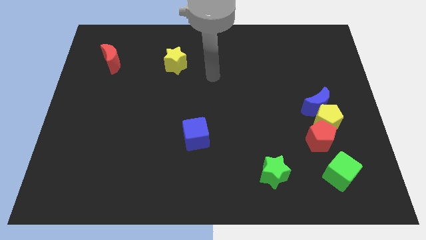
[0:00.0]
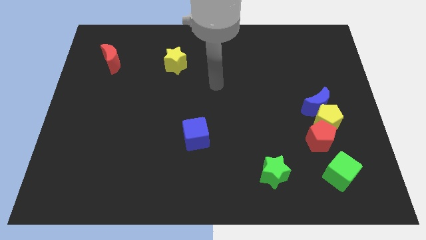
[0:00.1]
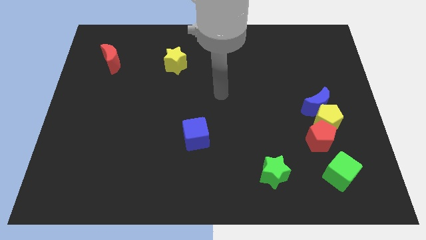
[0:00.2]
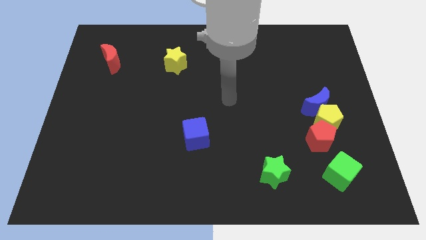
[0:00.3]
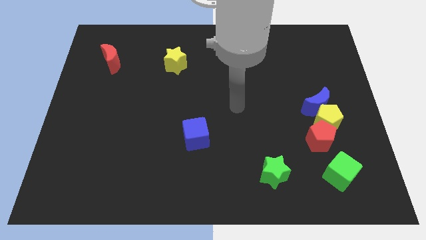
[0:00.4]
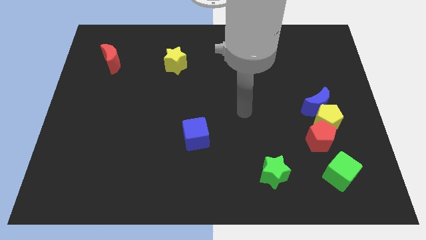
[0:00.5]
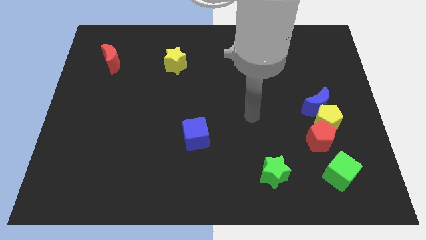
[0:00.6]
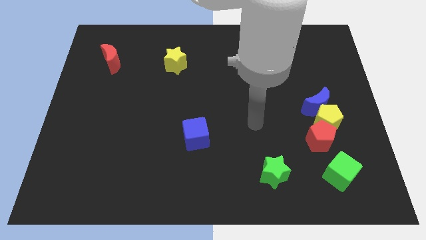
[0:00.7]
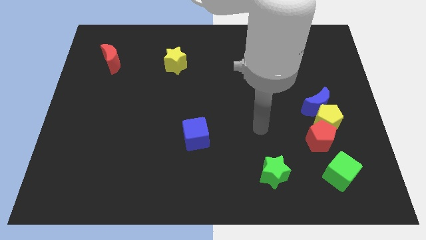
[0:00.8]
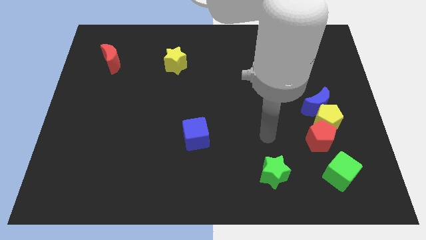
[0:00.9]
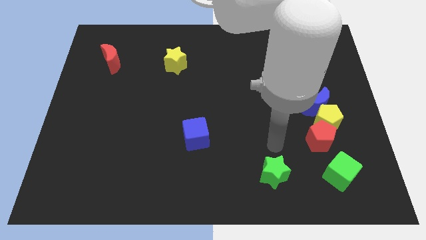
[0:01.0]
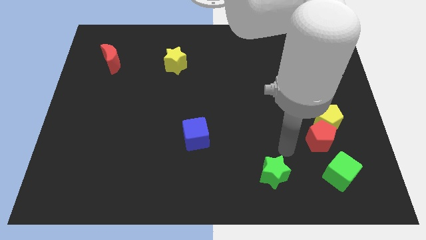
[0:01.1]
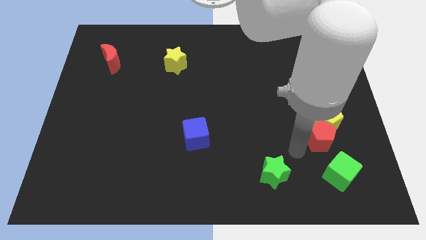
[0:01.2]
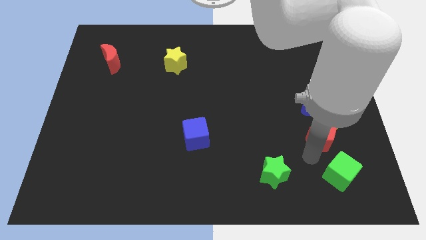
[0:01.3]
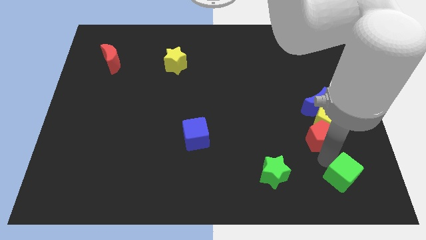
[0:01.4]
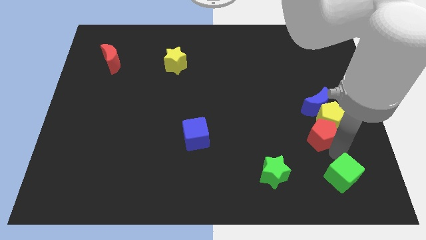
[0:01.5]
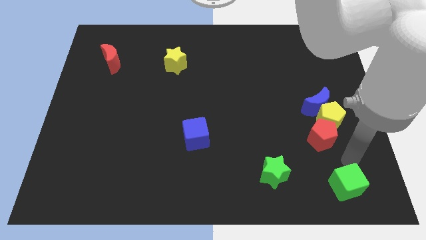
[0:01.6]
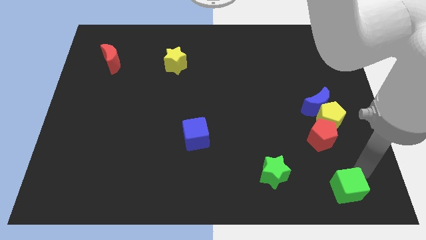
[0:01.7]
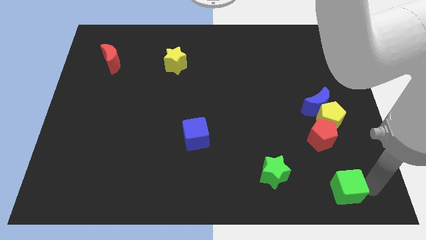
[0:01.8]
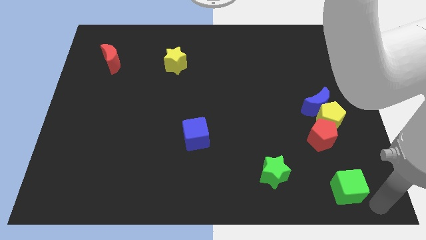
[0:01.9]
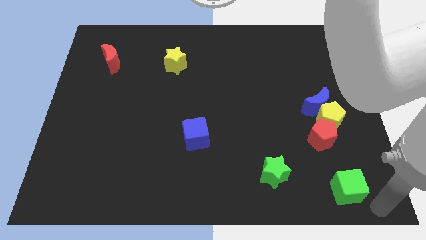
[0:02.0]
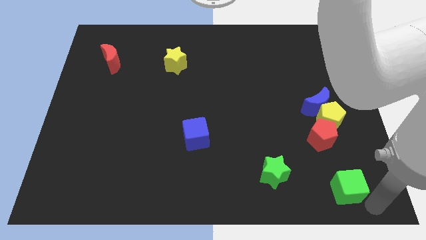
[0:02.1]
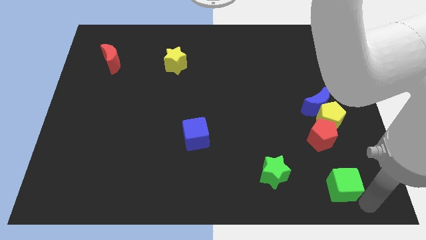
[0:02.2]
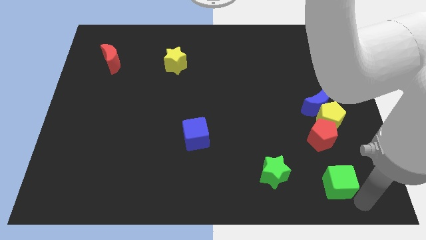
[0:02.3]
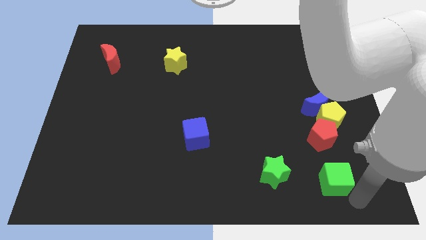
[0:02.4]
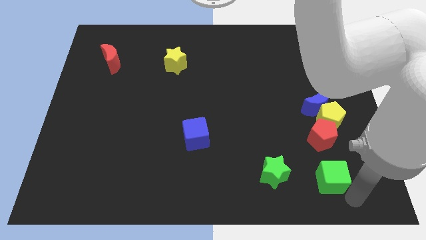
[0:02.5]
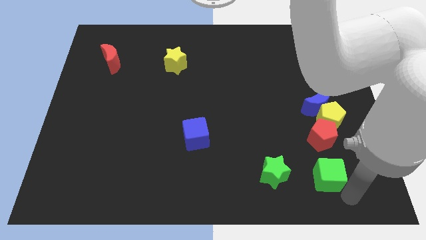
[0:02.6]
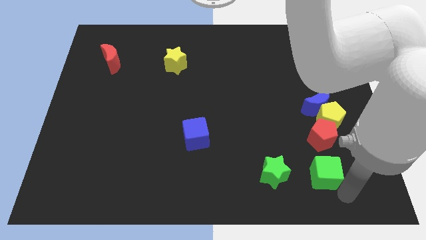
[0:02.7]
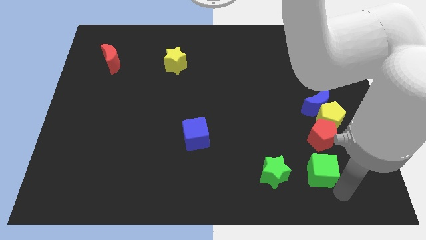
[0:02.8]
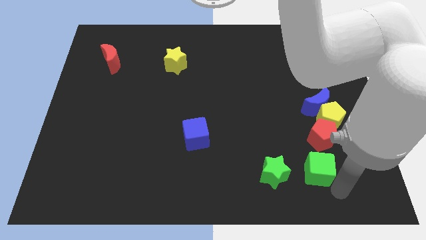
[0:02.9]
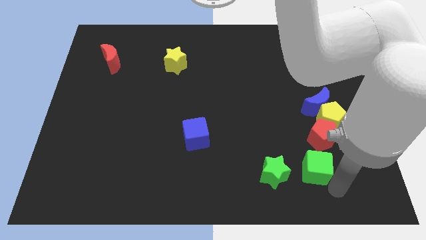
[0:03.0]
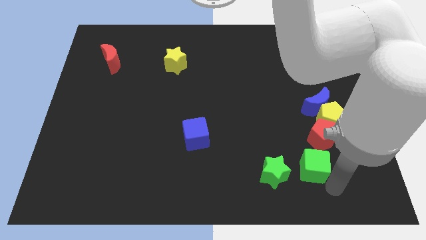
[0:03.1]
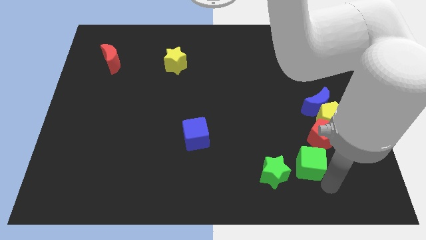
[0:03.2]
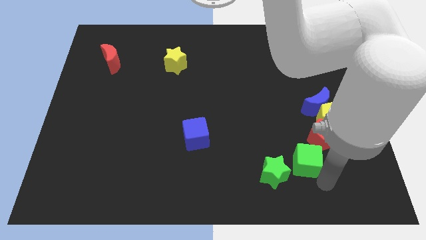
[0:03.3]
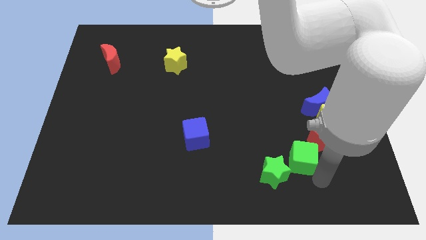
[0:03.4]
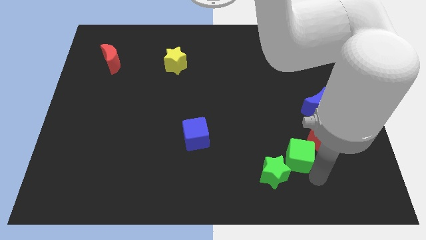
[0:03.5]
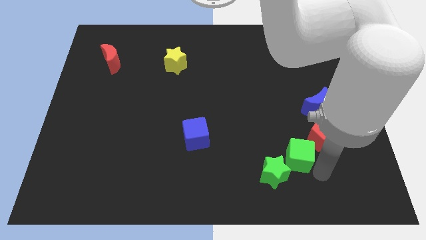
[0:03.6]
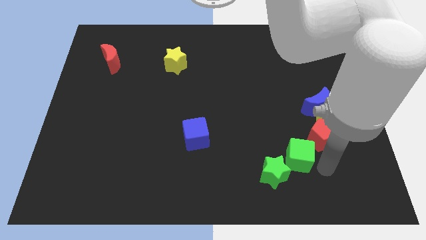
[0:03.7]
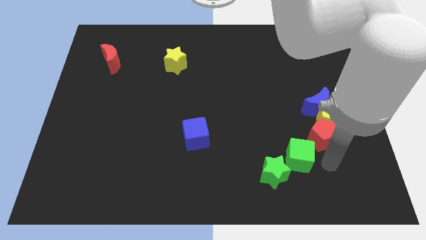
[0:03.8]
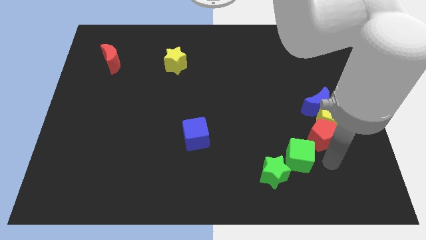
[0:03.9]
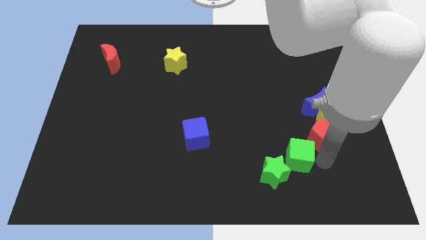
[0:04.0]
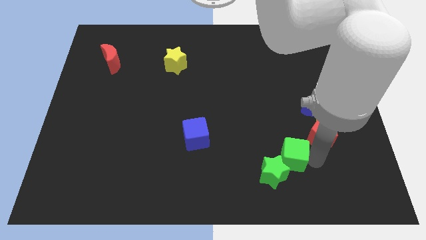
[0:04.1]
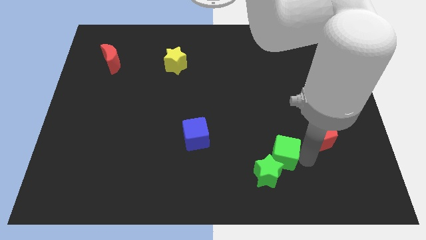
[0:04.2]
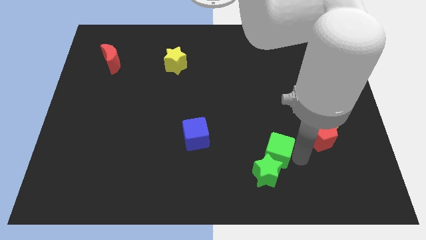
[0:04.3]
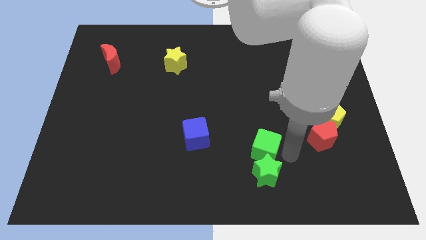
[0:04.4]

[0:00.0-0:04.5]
slide the green cube to the top left side of the green star

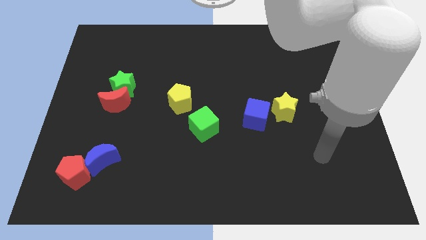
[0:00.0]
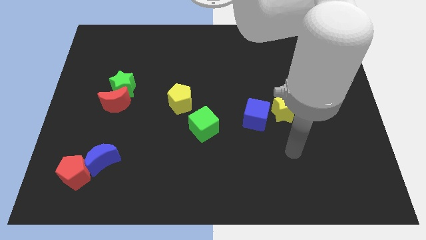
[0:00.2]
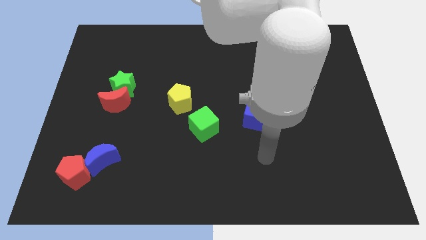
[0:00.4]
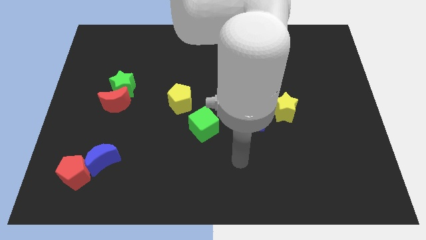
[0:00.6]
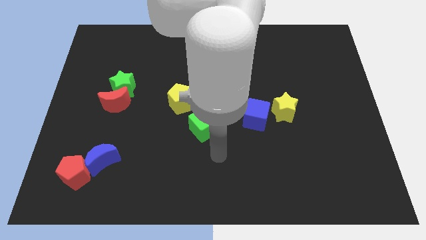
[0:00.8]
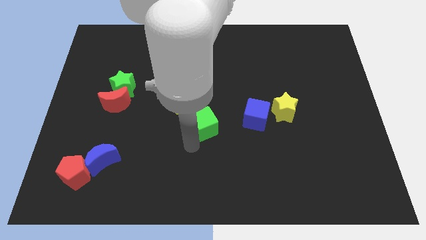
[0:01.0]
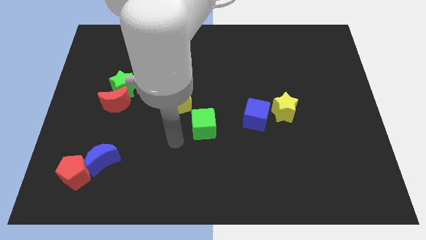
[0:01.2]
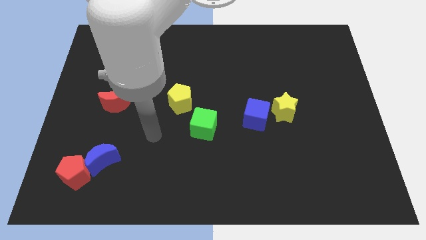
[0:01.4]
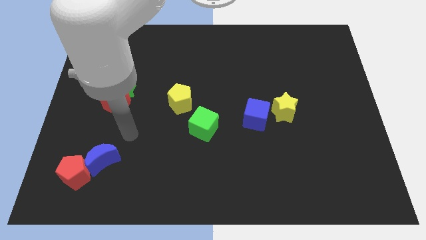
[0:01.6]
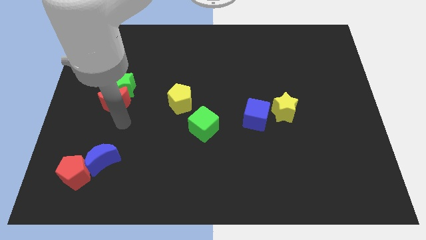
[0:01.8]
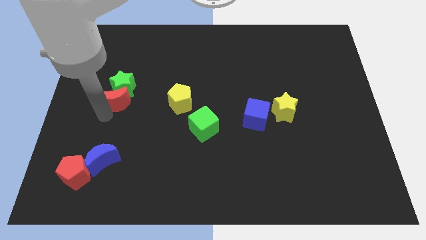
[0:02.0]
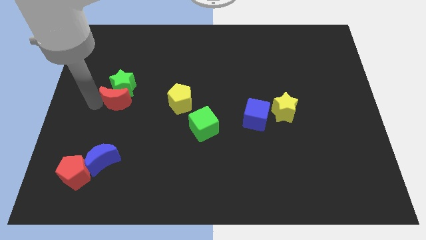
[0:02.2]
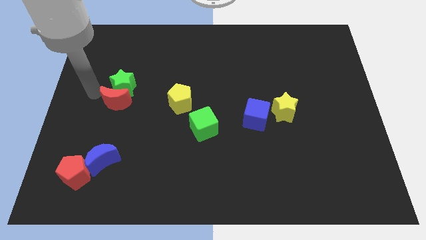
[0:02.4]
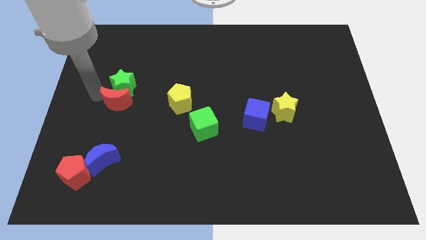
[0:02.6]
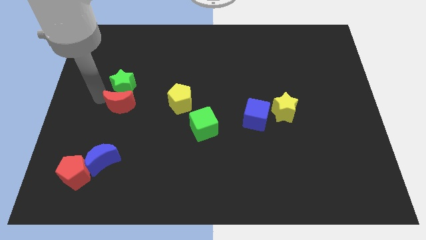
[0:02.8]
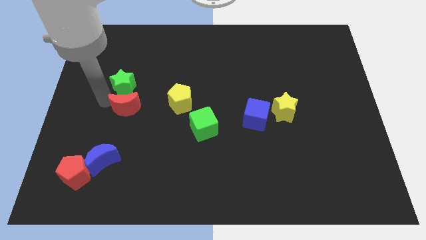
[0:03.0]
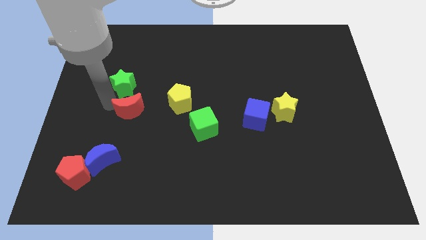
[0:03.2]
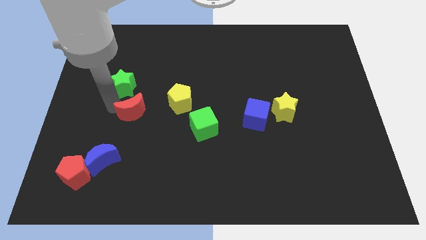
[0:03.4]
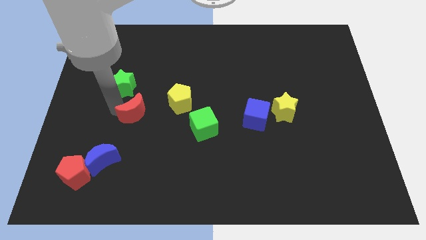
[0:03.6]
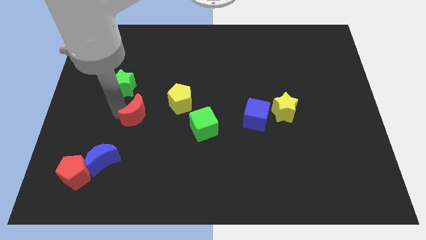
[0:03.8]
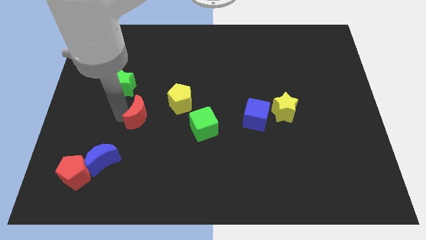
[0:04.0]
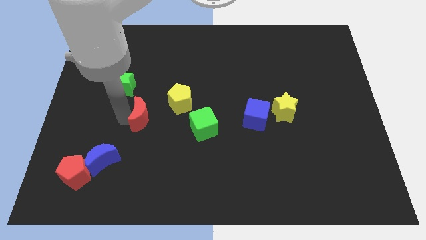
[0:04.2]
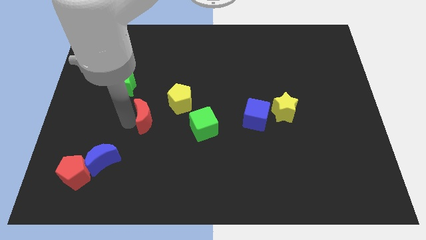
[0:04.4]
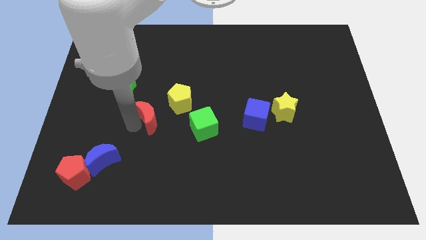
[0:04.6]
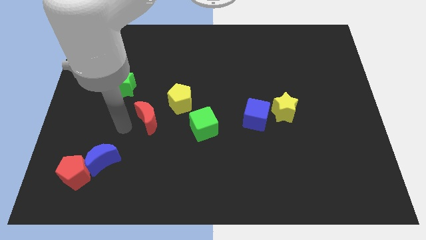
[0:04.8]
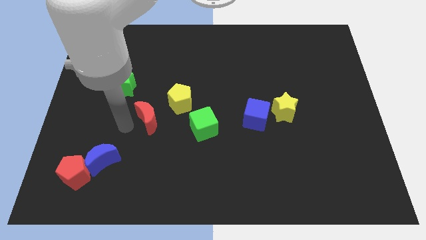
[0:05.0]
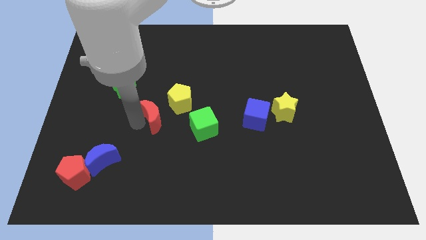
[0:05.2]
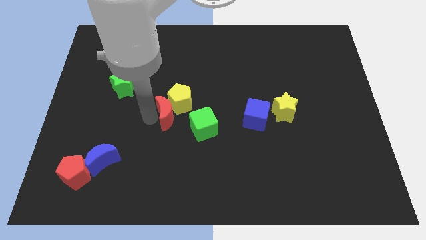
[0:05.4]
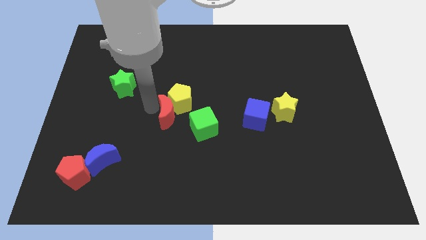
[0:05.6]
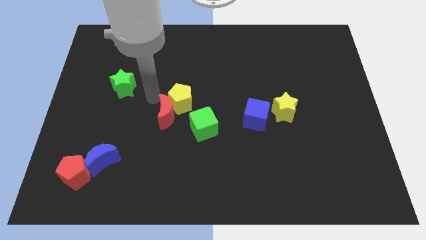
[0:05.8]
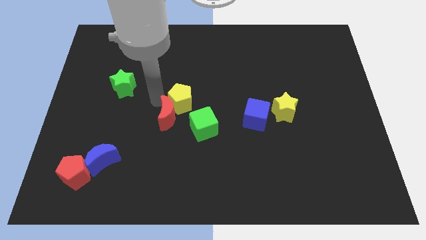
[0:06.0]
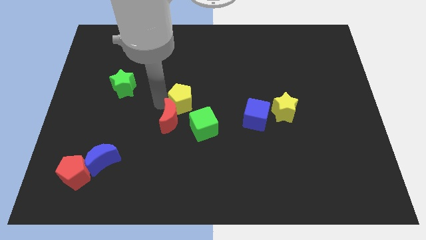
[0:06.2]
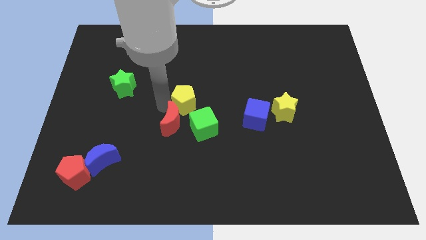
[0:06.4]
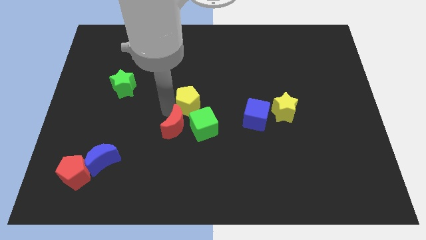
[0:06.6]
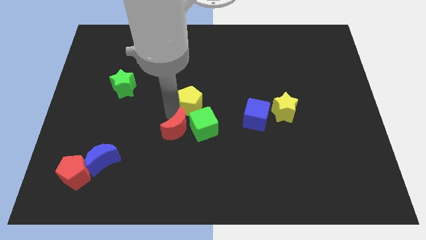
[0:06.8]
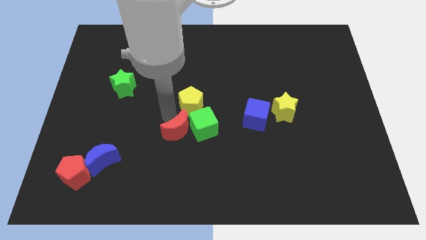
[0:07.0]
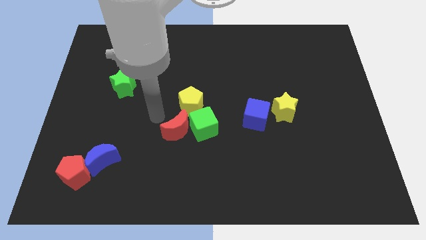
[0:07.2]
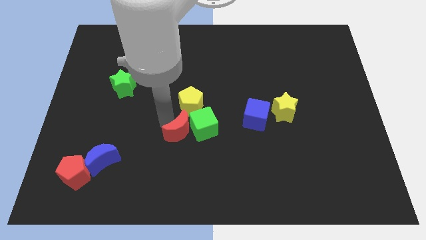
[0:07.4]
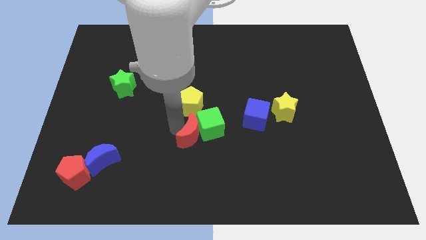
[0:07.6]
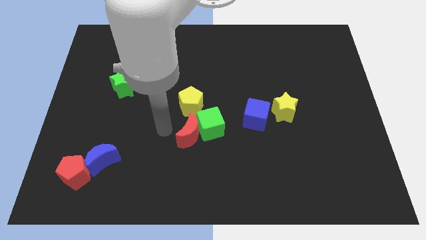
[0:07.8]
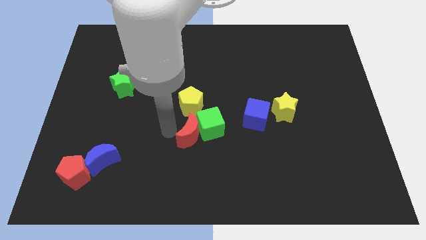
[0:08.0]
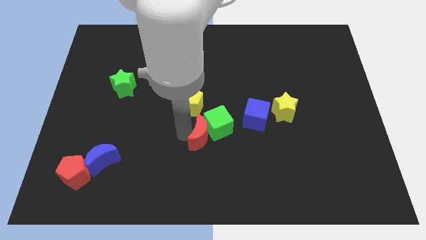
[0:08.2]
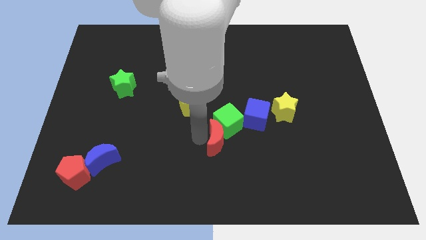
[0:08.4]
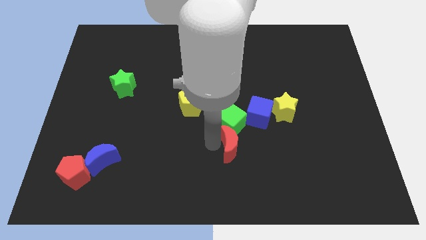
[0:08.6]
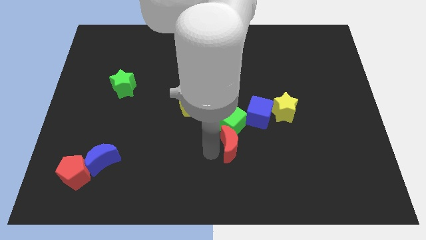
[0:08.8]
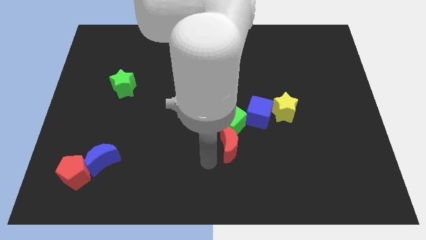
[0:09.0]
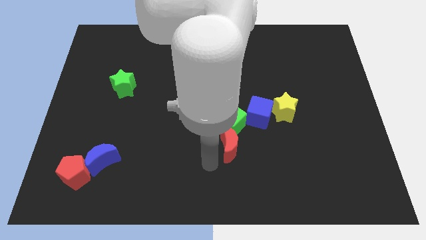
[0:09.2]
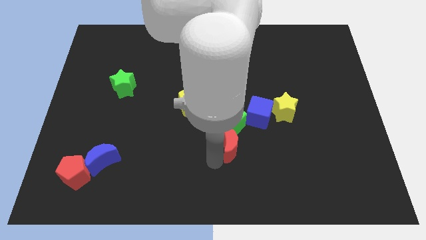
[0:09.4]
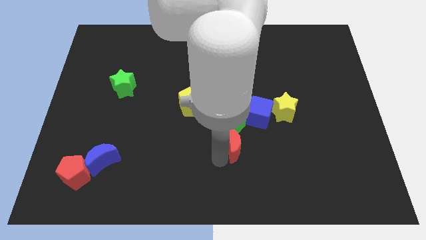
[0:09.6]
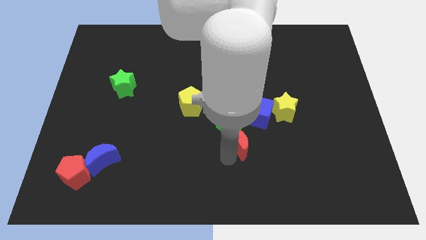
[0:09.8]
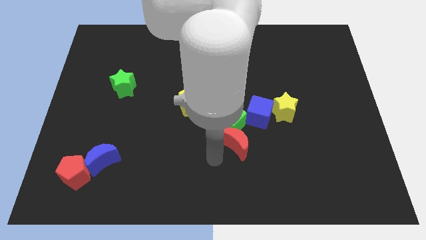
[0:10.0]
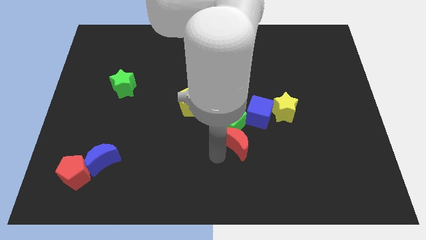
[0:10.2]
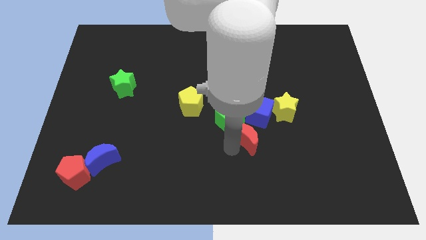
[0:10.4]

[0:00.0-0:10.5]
push the red moon diagonally down and to the left of the yellow star
